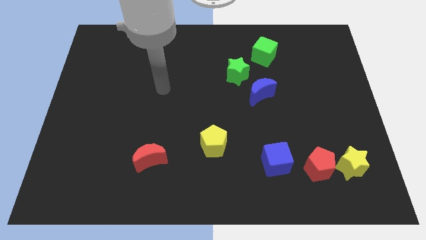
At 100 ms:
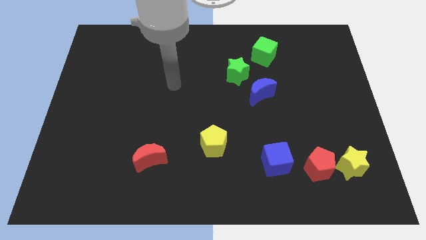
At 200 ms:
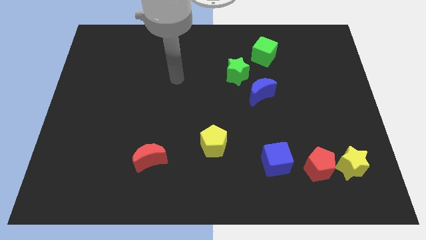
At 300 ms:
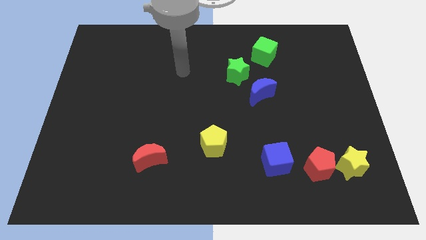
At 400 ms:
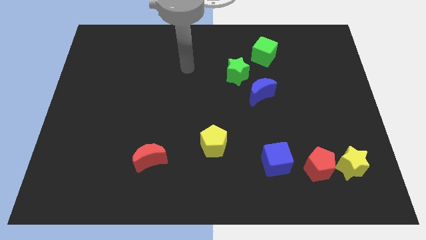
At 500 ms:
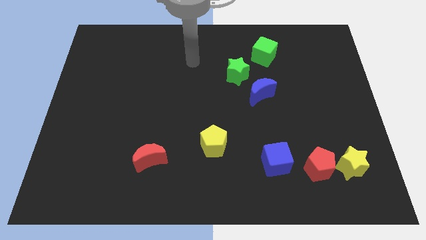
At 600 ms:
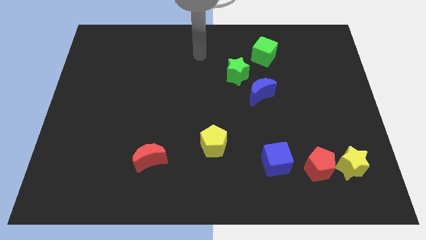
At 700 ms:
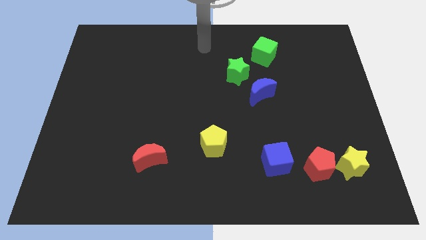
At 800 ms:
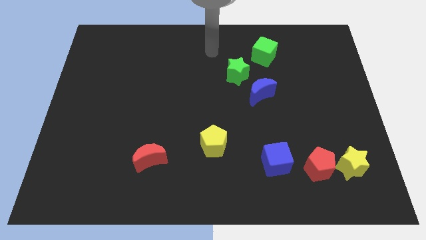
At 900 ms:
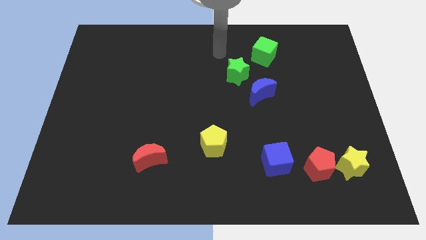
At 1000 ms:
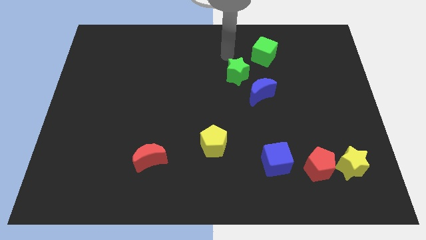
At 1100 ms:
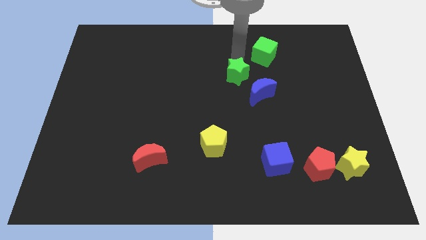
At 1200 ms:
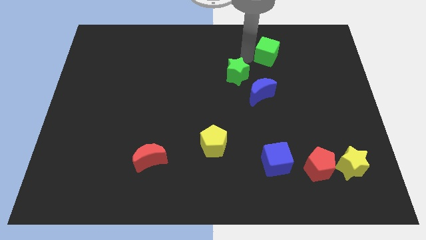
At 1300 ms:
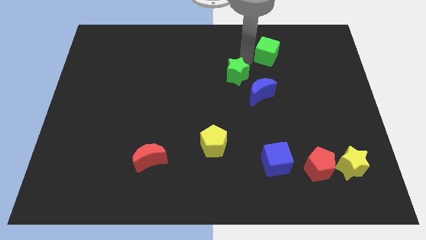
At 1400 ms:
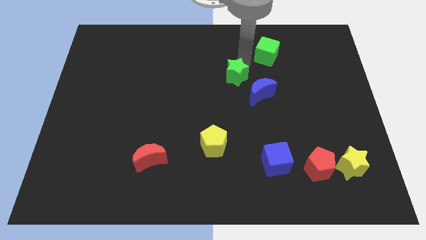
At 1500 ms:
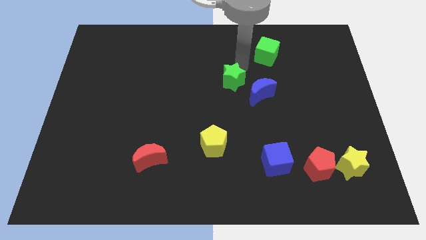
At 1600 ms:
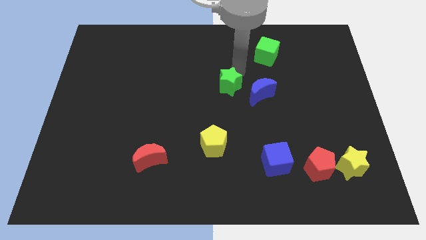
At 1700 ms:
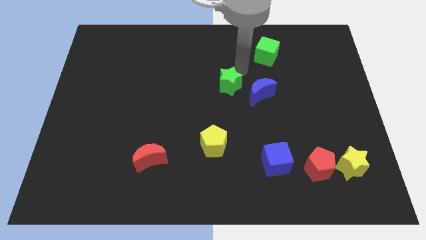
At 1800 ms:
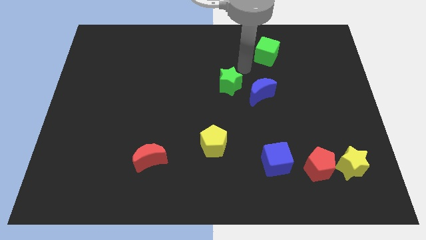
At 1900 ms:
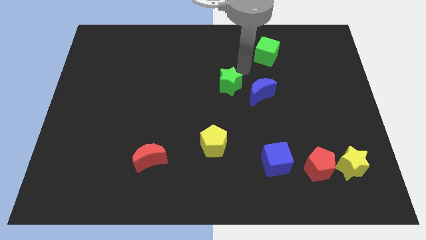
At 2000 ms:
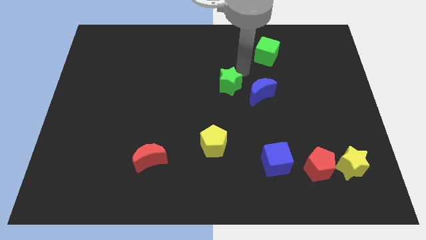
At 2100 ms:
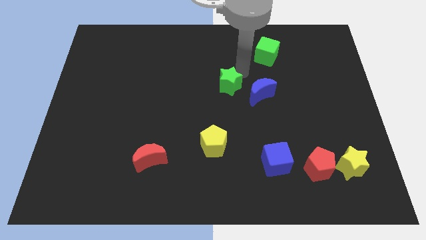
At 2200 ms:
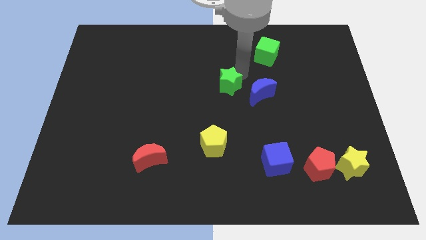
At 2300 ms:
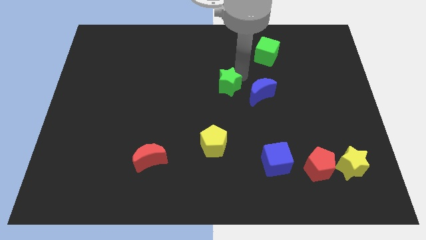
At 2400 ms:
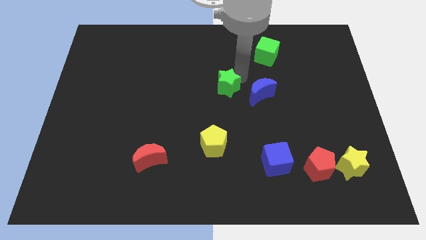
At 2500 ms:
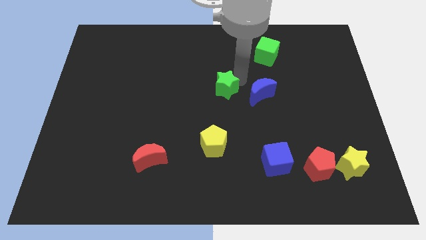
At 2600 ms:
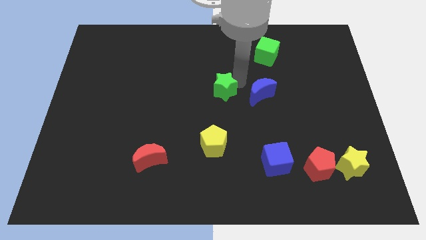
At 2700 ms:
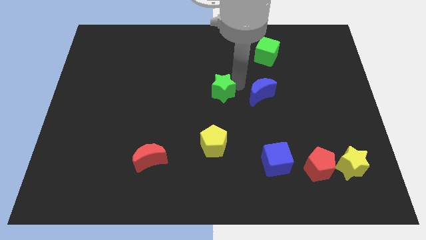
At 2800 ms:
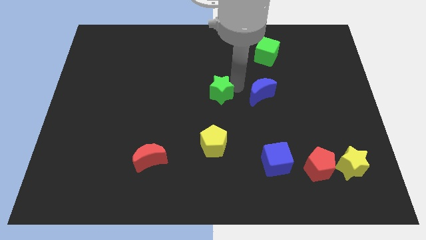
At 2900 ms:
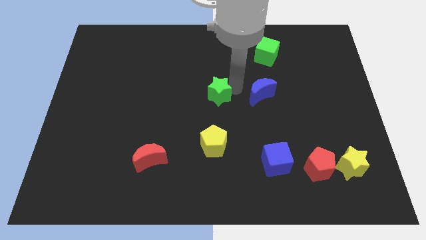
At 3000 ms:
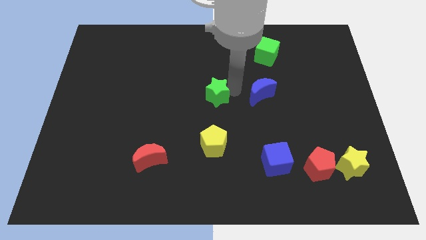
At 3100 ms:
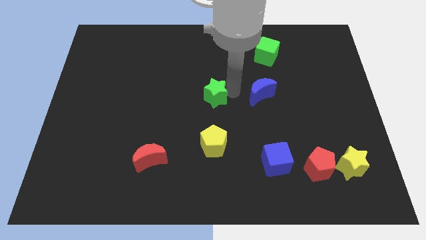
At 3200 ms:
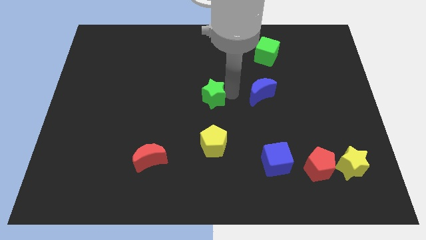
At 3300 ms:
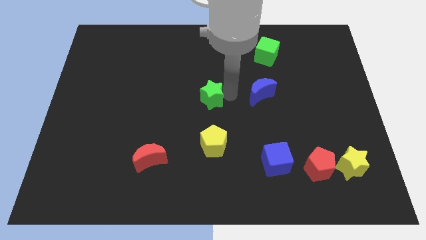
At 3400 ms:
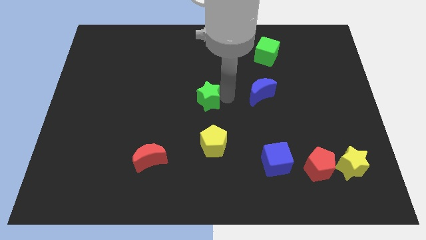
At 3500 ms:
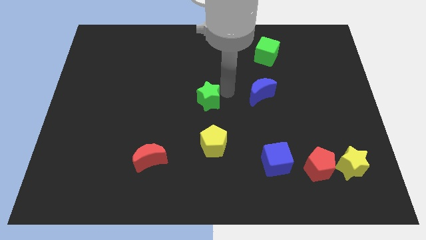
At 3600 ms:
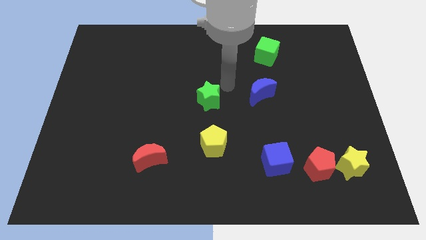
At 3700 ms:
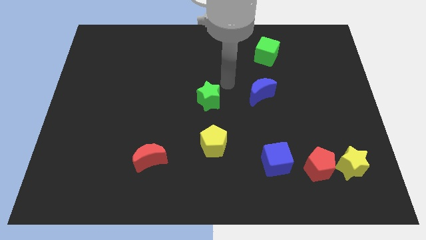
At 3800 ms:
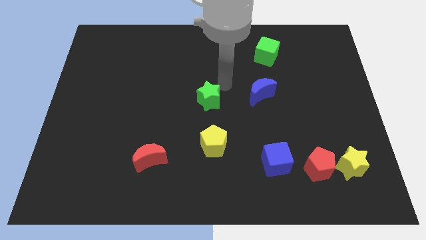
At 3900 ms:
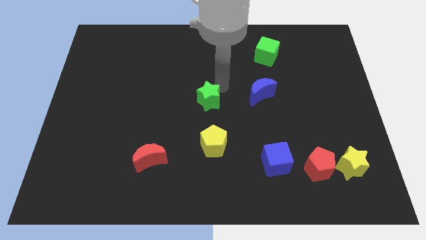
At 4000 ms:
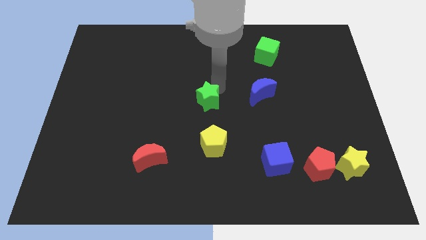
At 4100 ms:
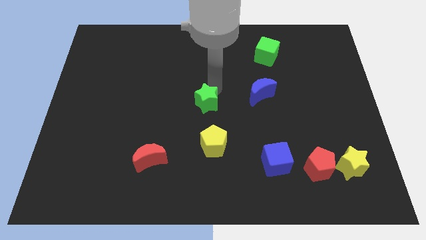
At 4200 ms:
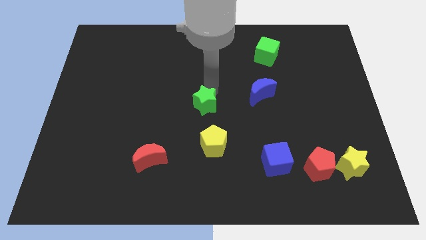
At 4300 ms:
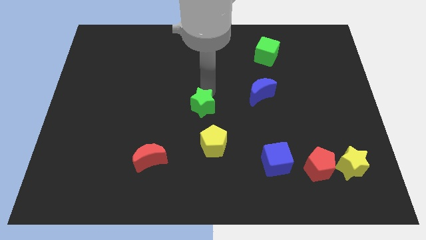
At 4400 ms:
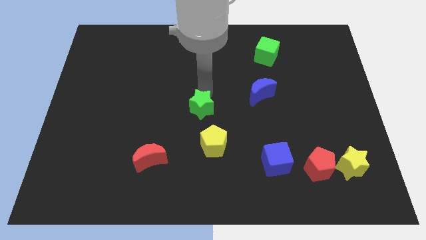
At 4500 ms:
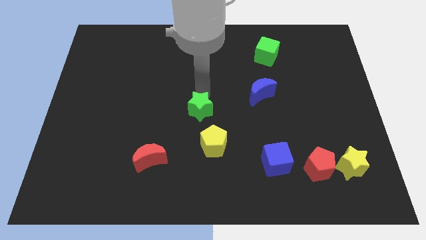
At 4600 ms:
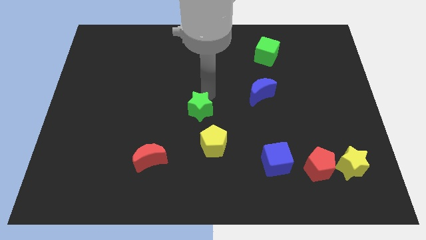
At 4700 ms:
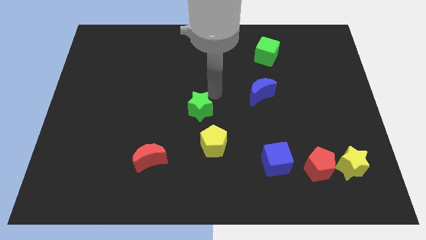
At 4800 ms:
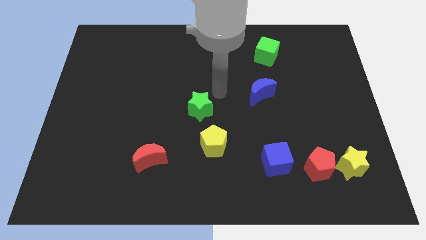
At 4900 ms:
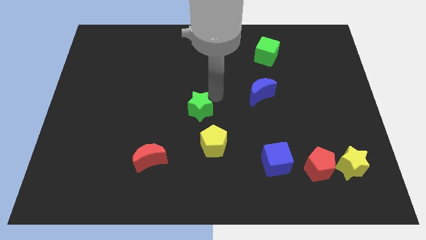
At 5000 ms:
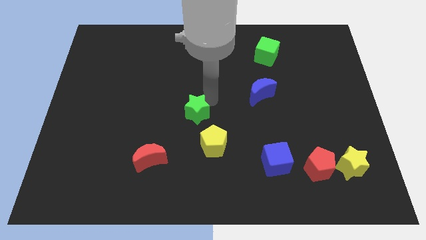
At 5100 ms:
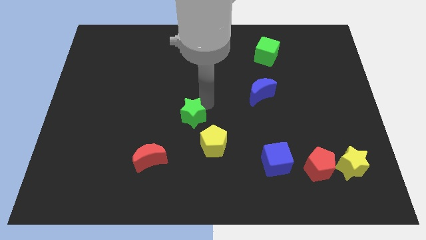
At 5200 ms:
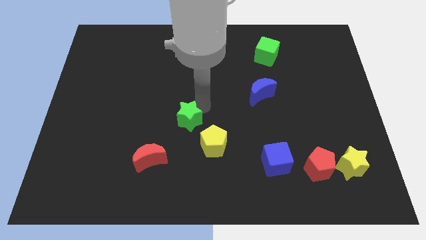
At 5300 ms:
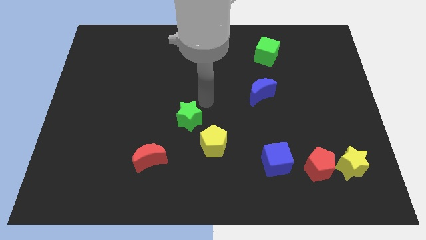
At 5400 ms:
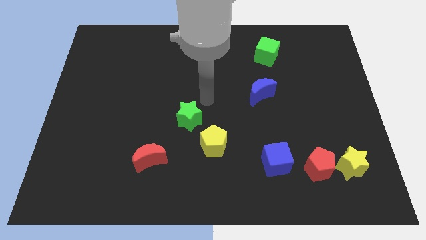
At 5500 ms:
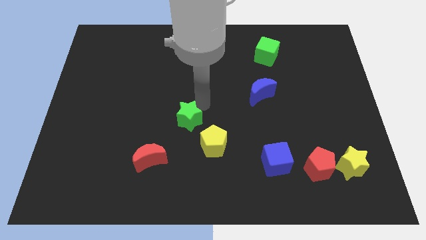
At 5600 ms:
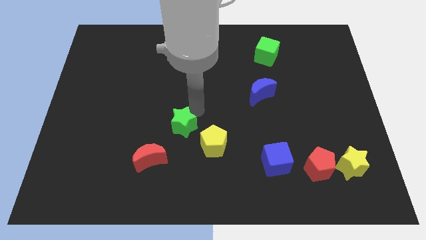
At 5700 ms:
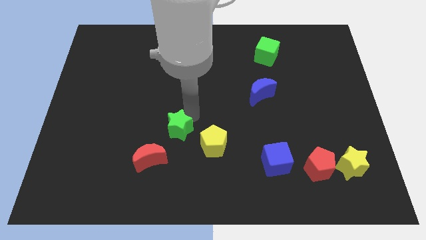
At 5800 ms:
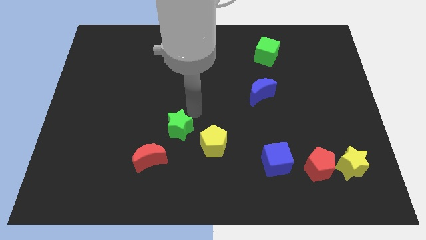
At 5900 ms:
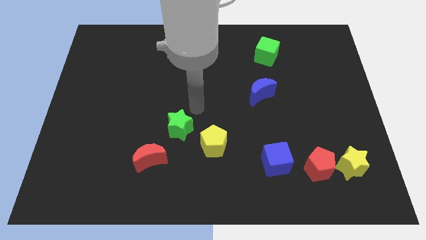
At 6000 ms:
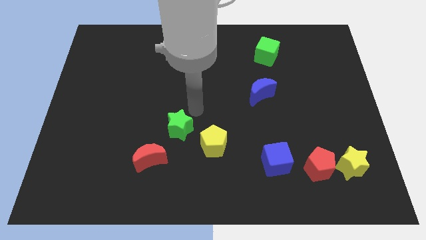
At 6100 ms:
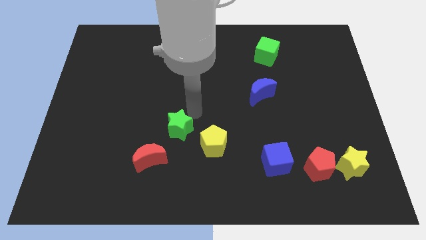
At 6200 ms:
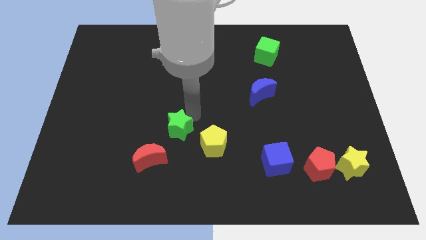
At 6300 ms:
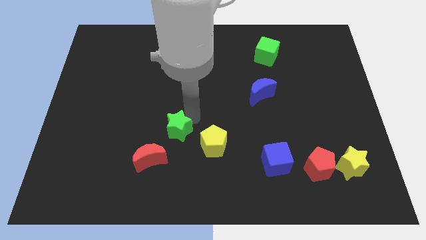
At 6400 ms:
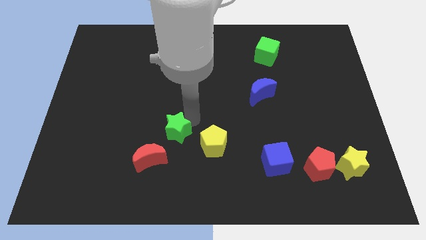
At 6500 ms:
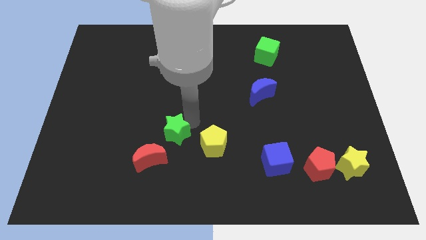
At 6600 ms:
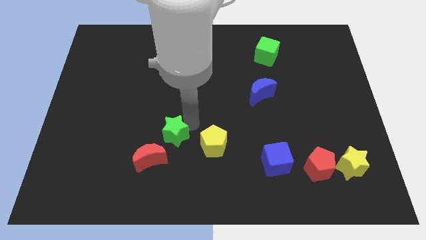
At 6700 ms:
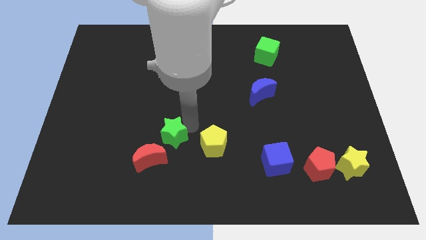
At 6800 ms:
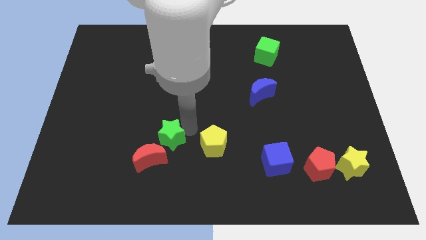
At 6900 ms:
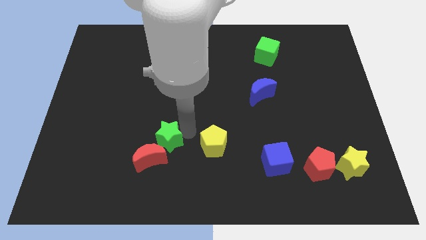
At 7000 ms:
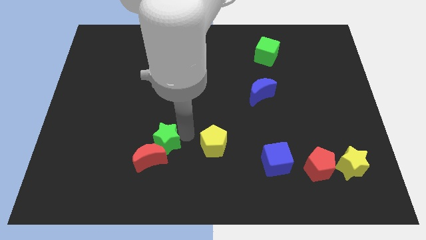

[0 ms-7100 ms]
slide the green star close to the red moon

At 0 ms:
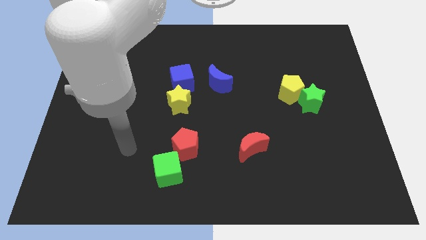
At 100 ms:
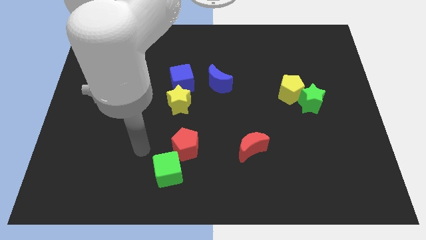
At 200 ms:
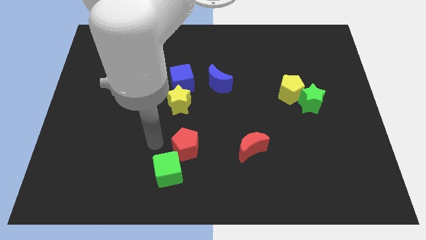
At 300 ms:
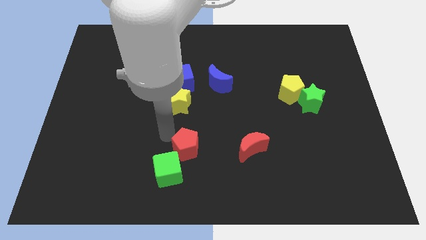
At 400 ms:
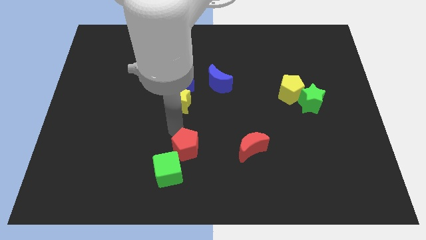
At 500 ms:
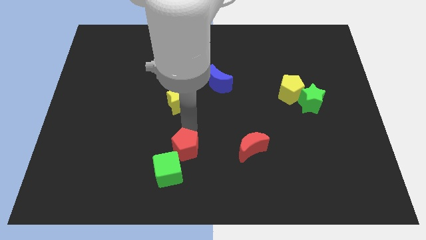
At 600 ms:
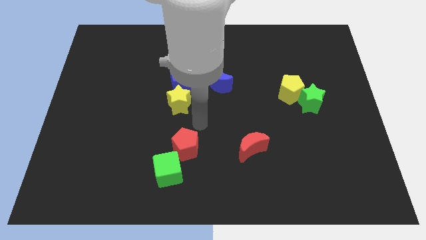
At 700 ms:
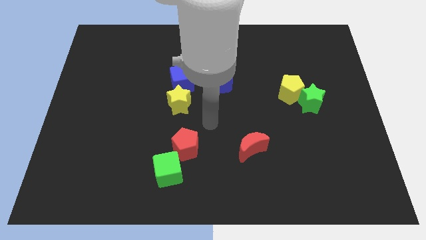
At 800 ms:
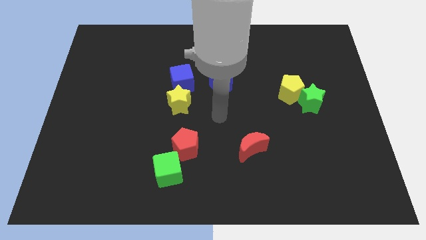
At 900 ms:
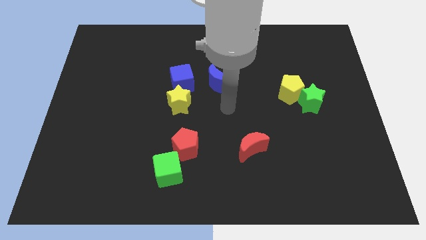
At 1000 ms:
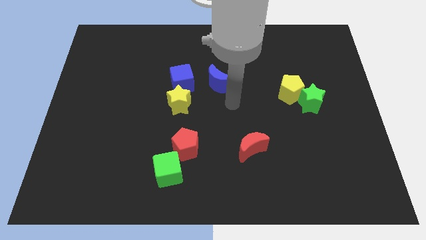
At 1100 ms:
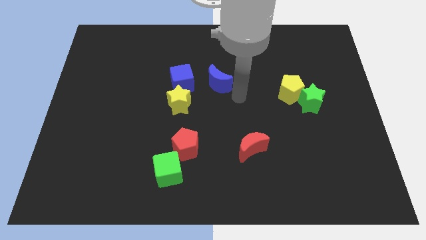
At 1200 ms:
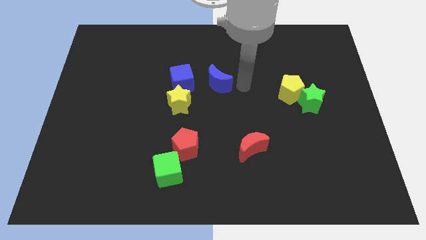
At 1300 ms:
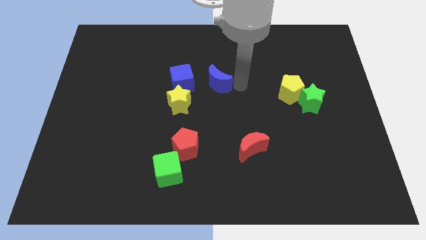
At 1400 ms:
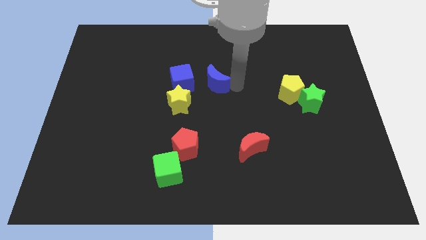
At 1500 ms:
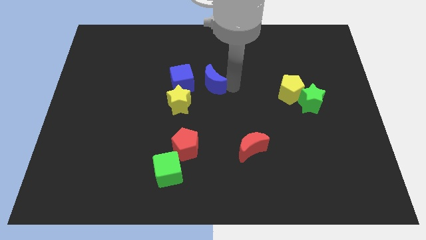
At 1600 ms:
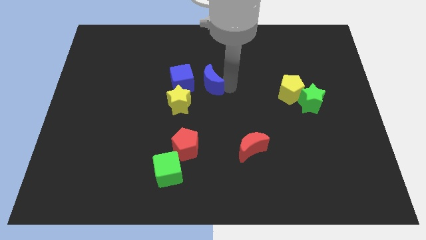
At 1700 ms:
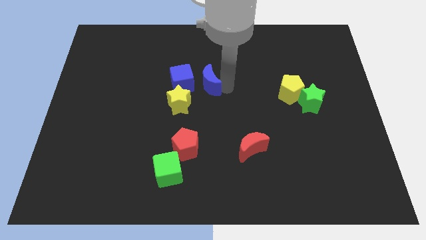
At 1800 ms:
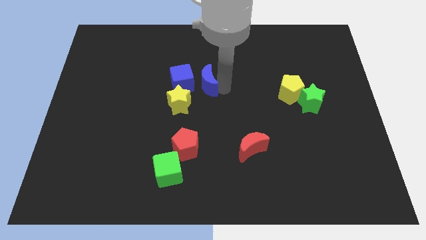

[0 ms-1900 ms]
move the blue moon next to the blue cube
